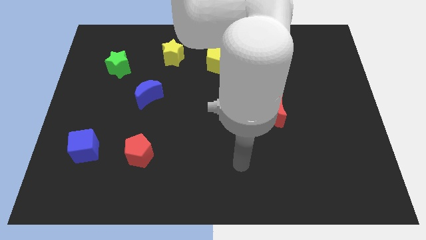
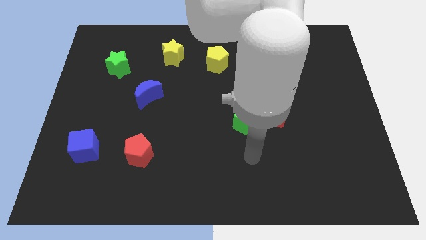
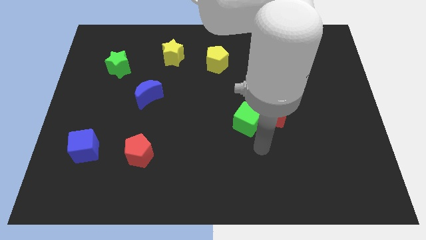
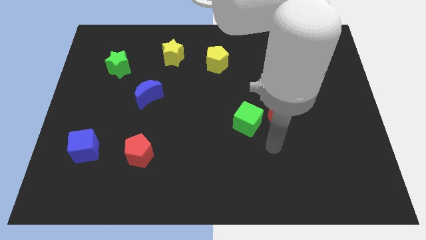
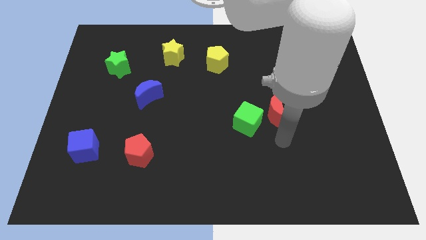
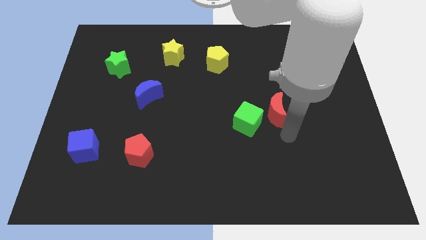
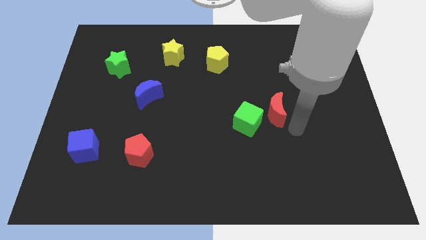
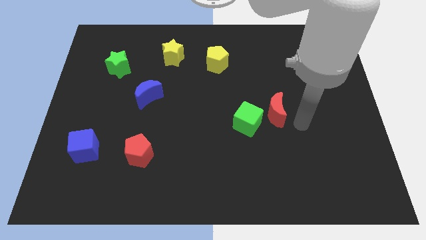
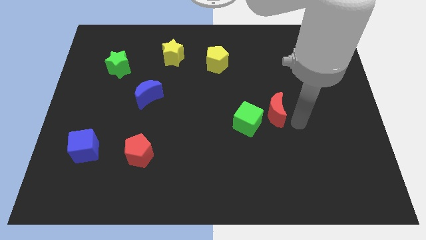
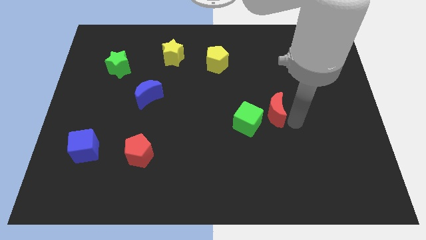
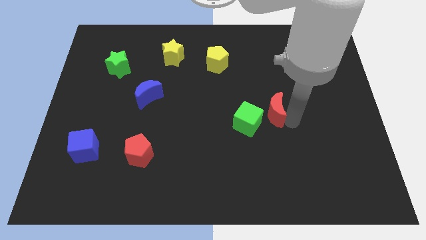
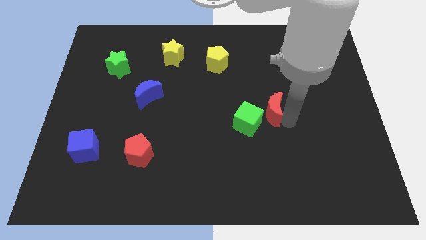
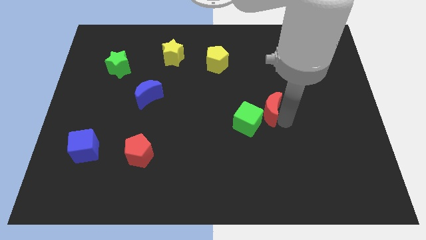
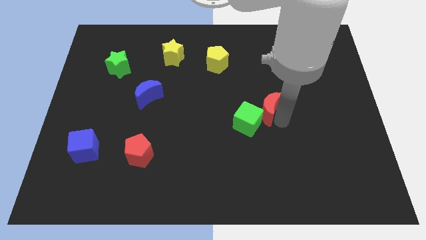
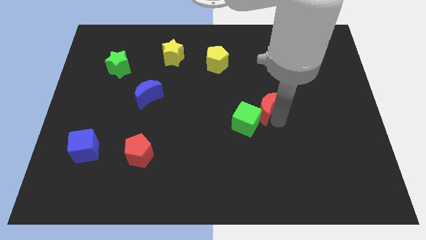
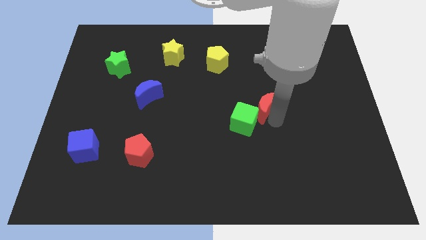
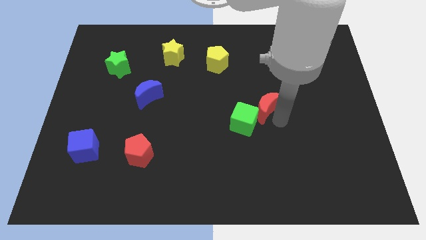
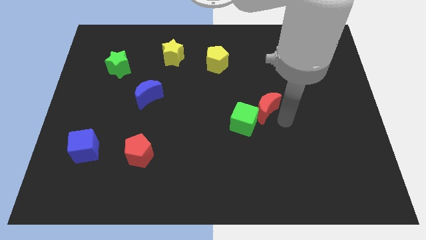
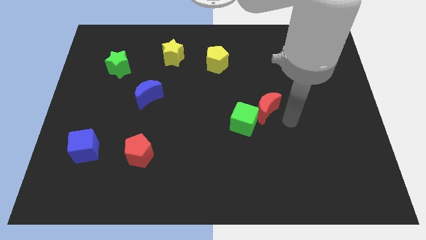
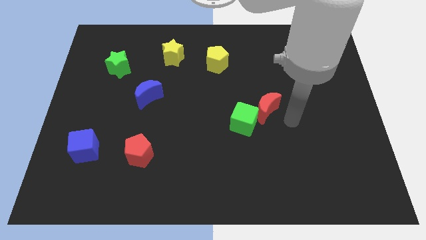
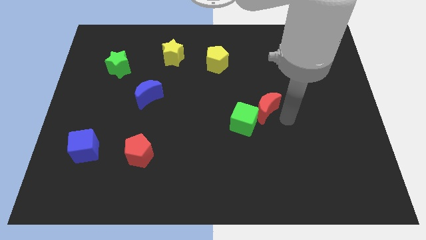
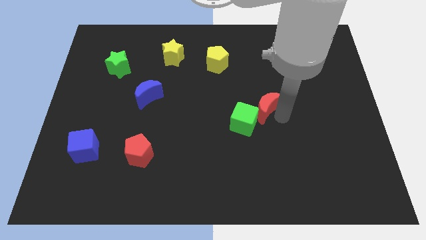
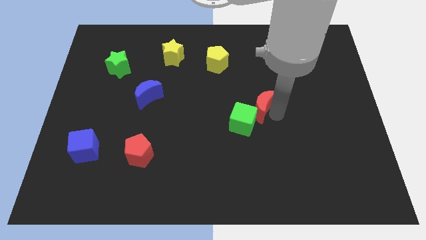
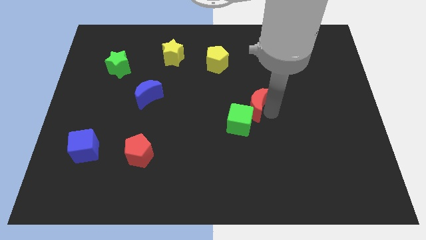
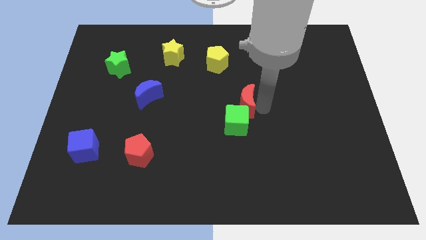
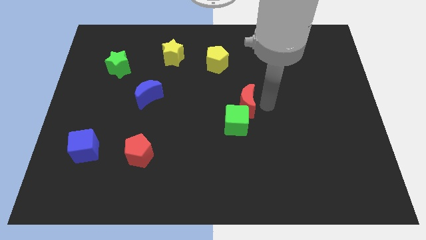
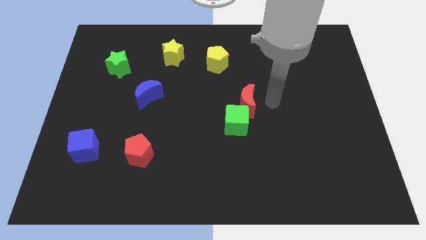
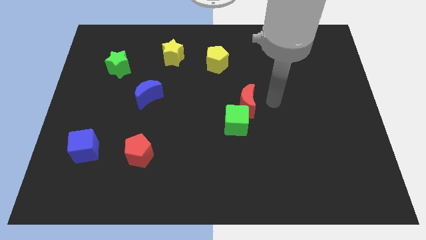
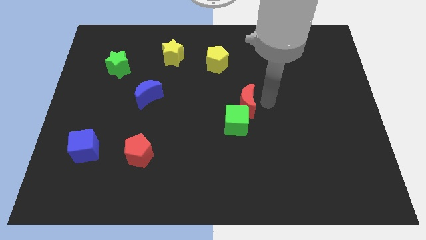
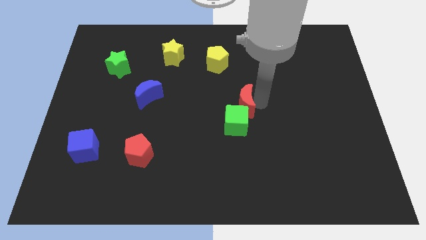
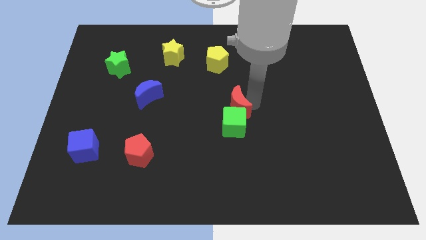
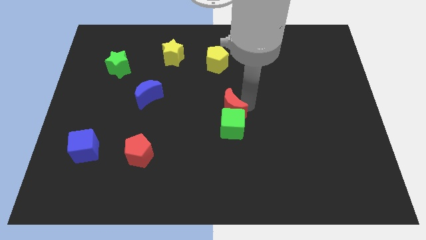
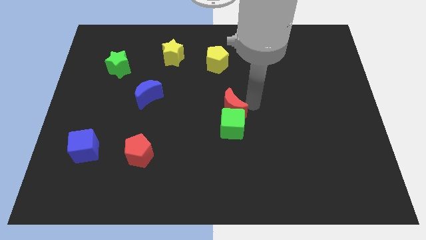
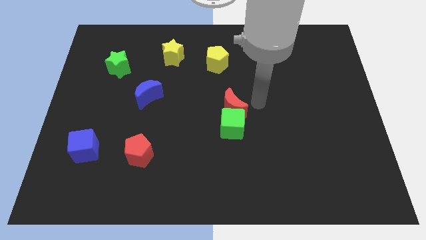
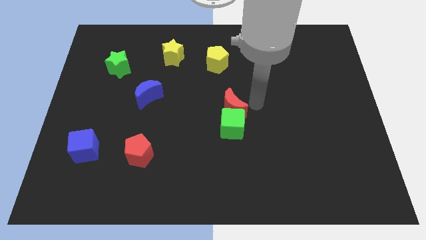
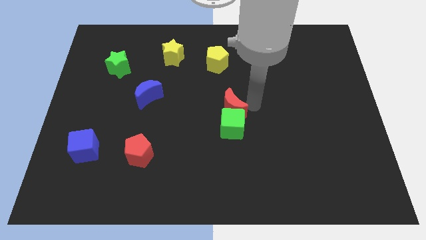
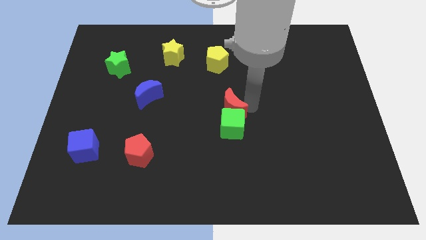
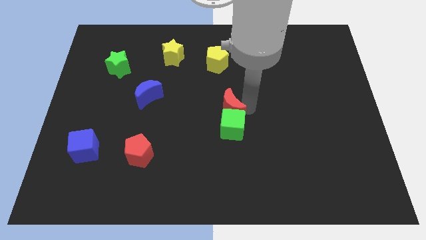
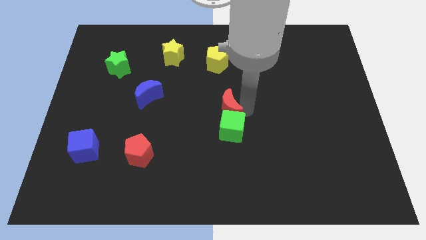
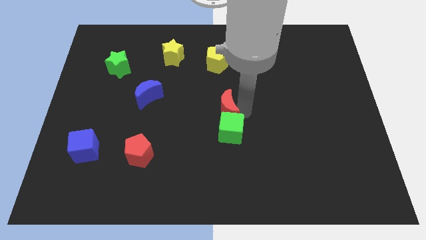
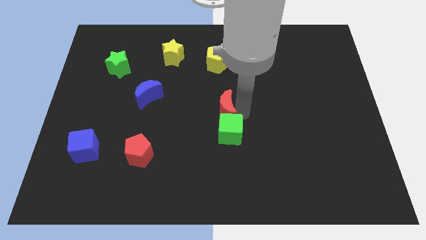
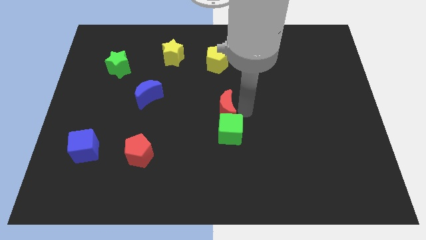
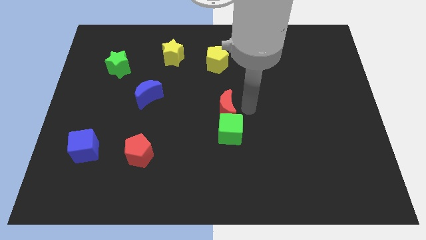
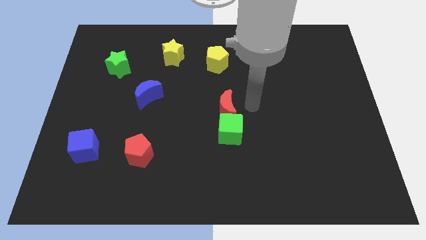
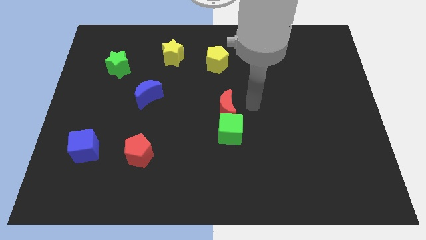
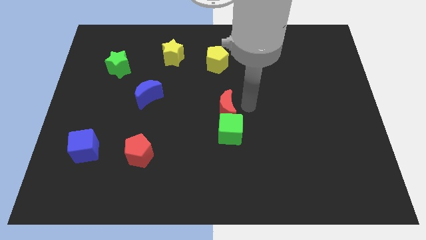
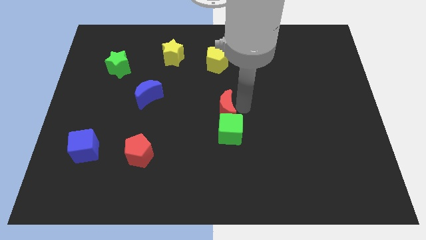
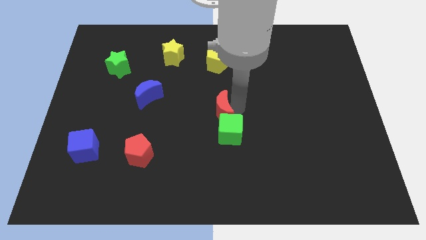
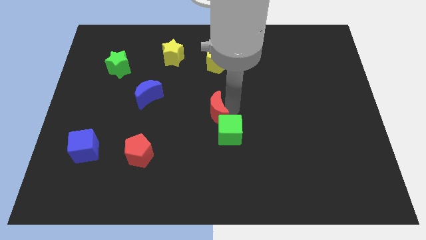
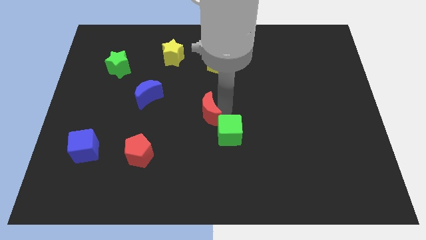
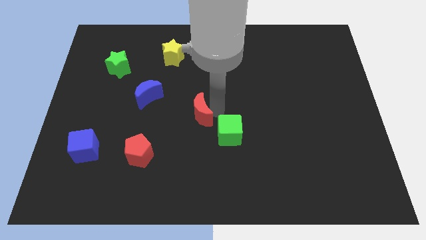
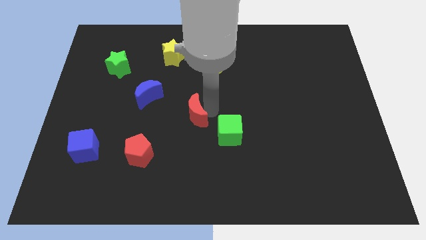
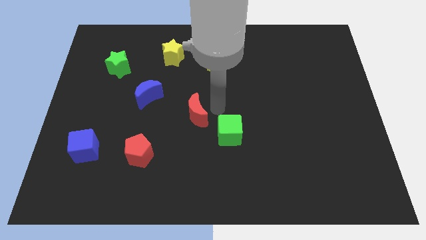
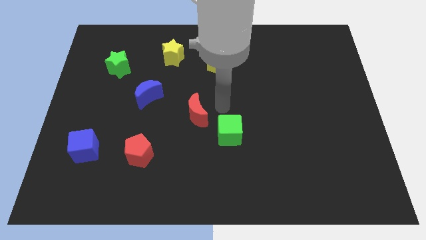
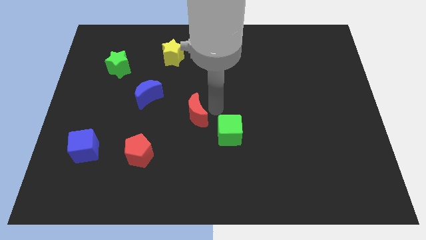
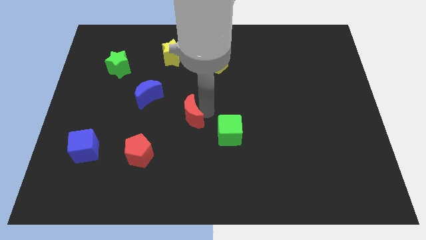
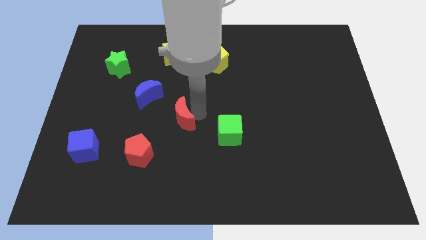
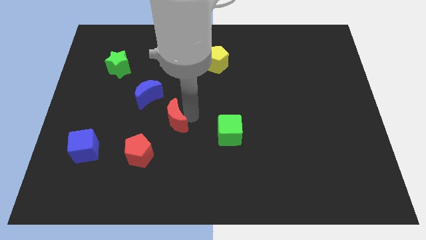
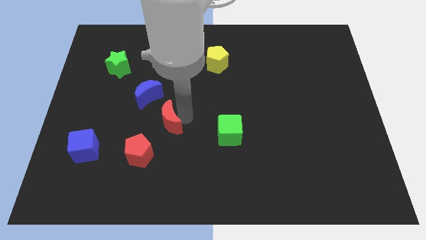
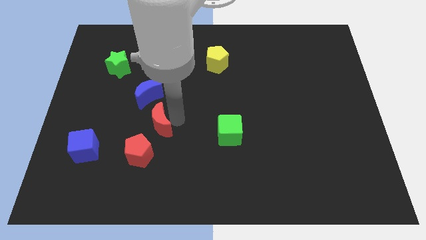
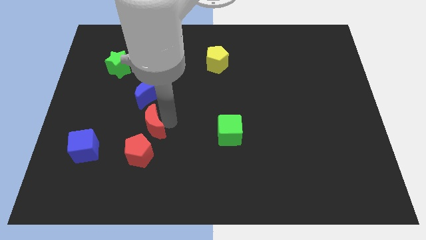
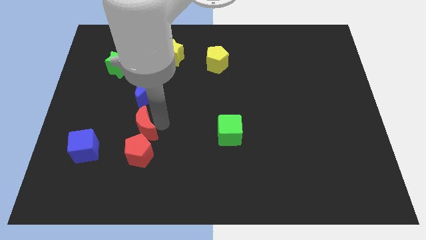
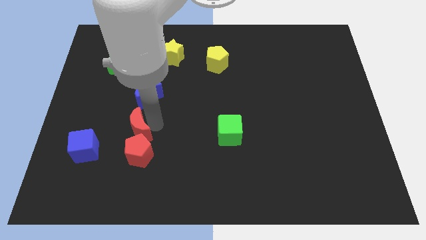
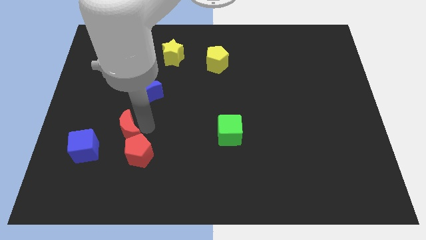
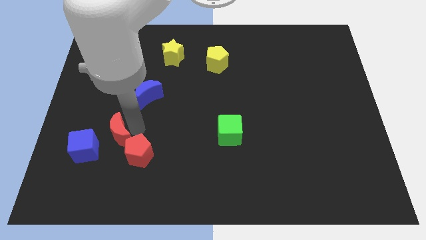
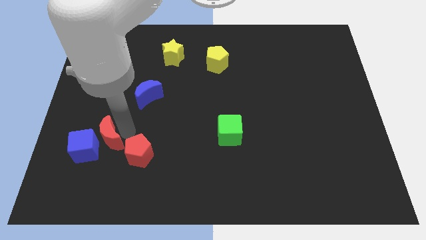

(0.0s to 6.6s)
move the red moon close to the blue cube

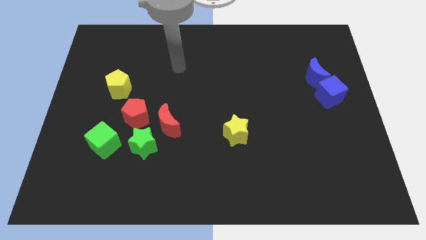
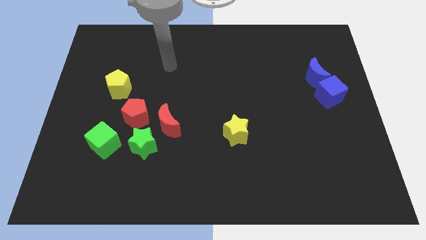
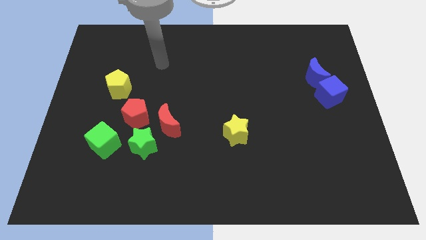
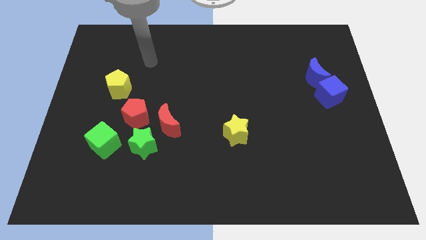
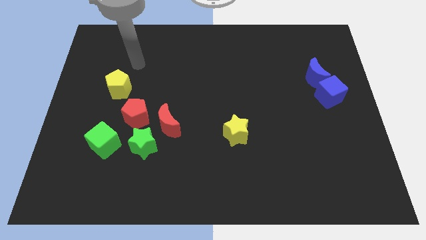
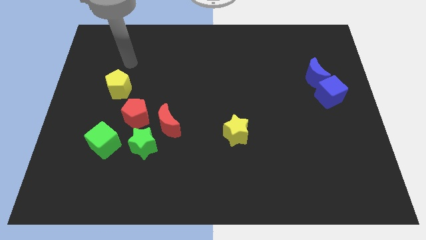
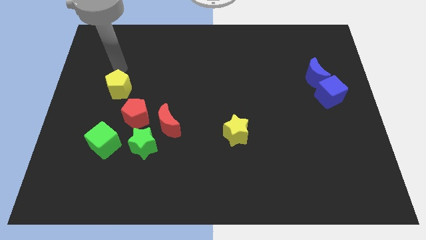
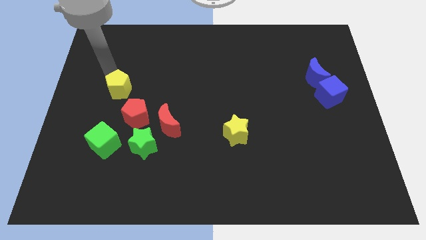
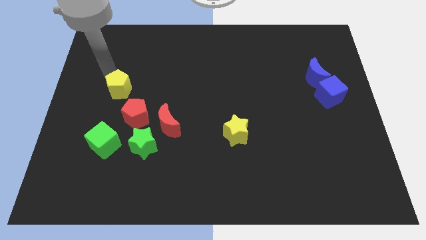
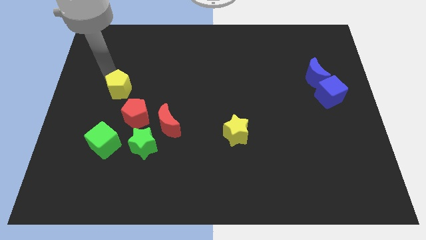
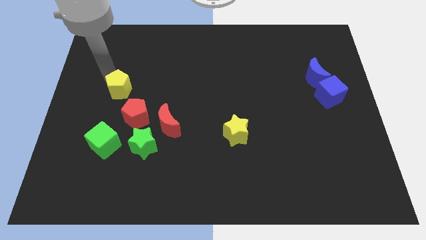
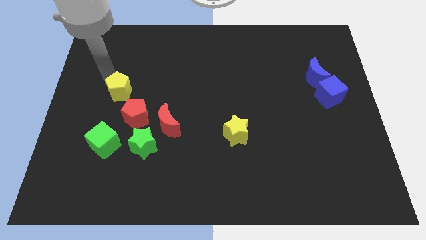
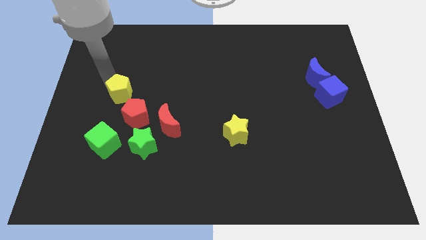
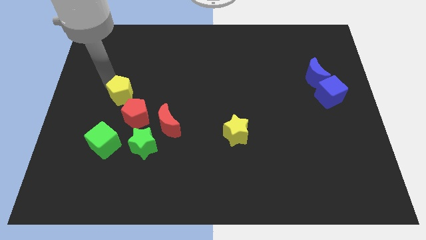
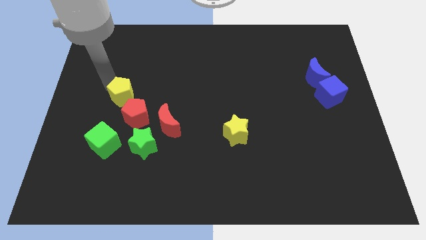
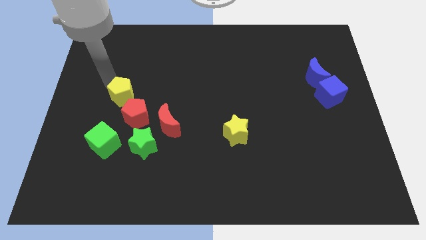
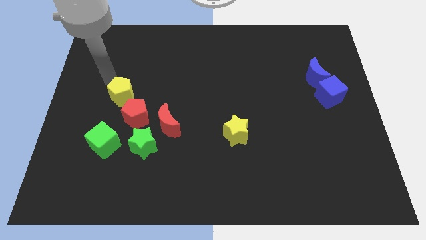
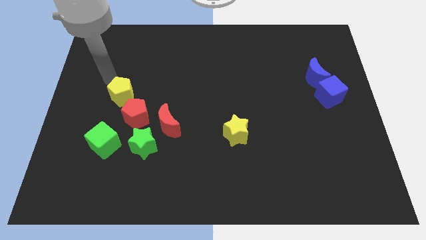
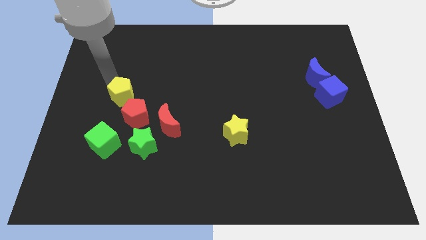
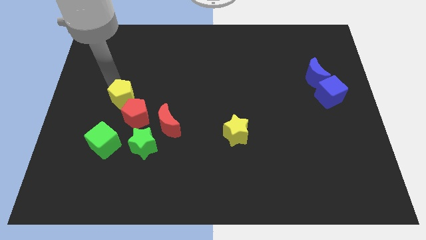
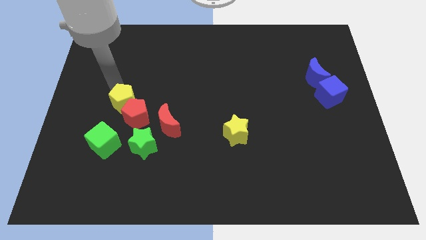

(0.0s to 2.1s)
slide the yellow pentagon towards the red pentagon
